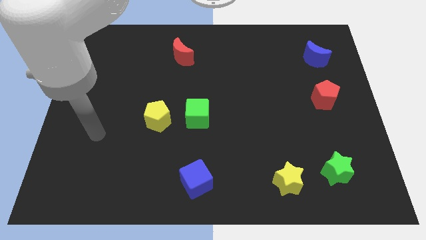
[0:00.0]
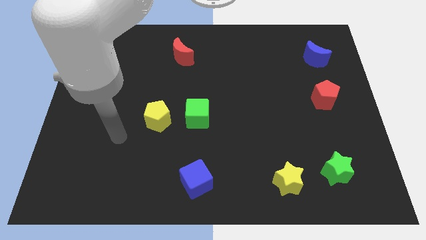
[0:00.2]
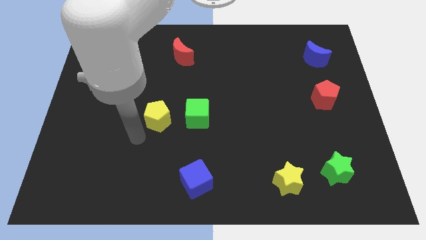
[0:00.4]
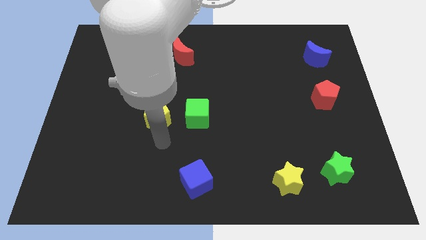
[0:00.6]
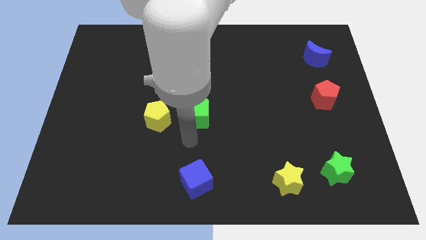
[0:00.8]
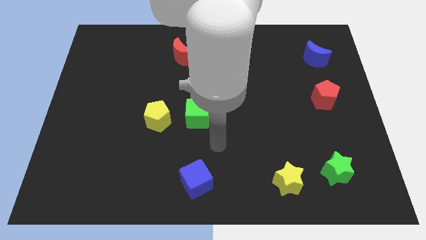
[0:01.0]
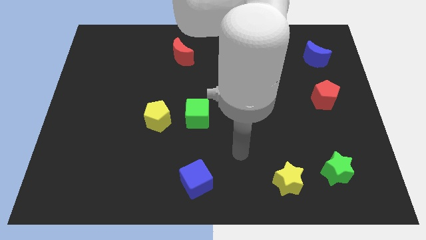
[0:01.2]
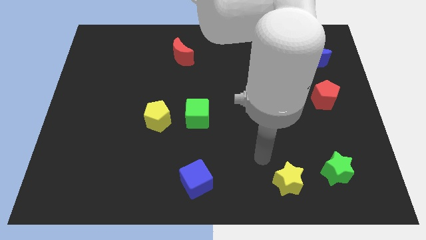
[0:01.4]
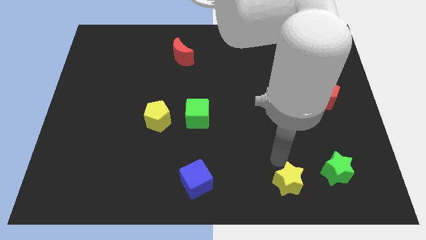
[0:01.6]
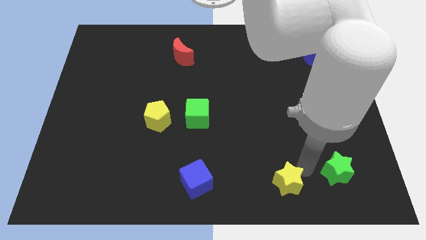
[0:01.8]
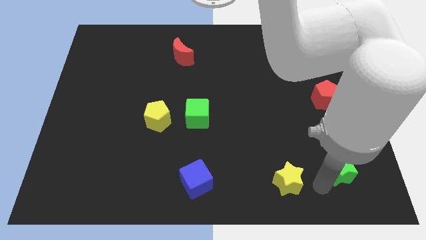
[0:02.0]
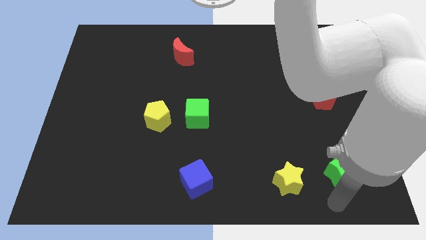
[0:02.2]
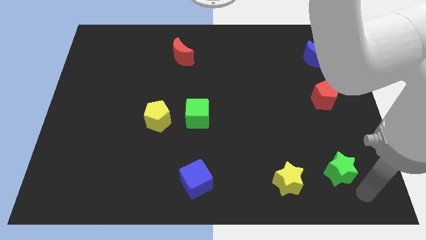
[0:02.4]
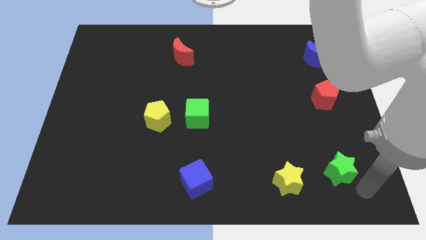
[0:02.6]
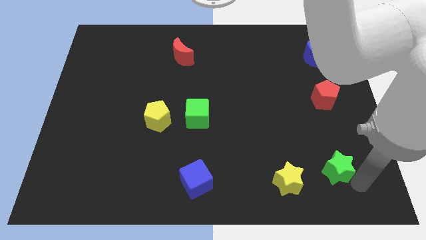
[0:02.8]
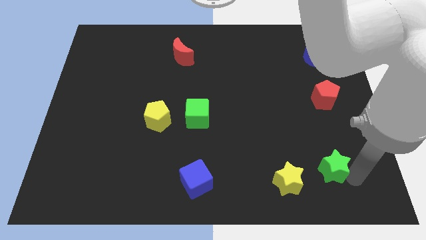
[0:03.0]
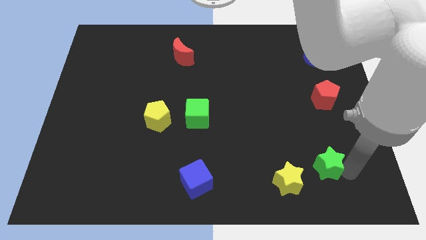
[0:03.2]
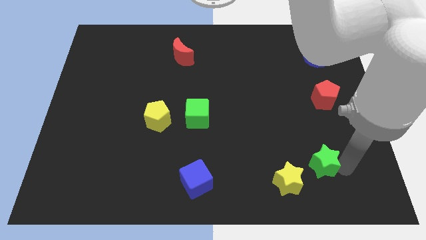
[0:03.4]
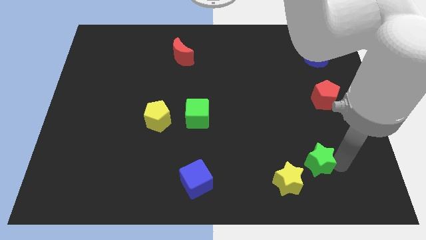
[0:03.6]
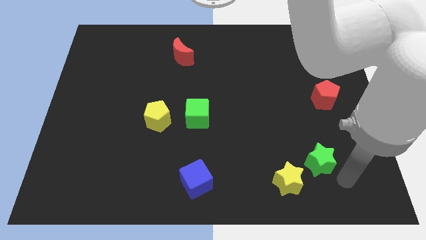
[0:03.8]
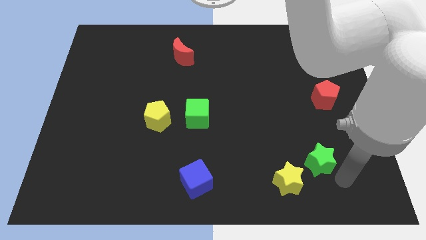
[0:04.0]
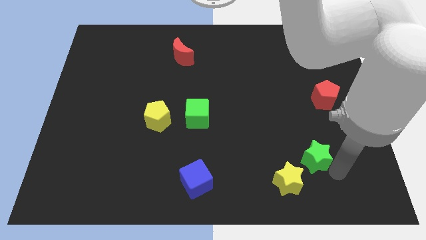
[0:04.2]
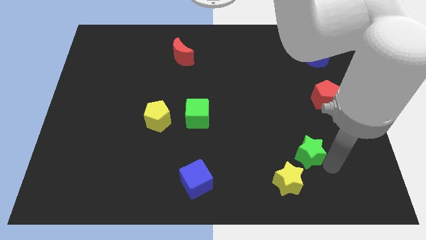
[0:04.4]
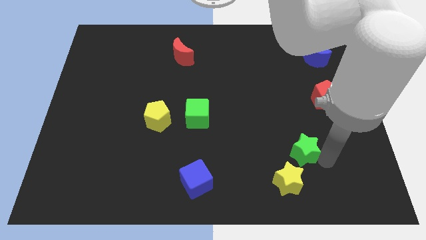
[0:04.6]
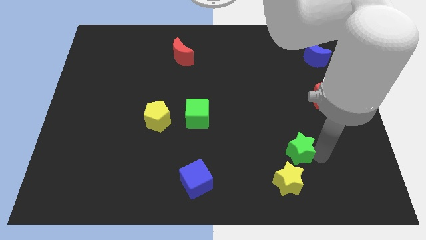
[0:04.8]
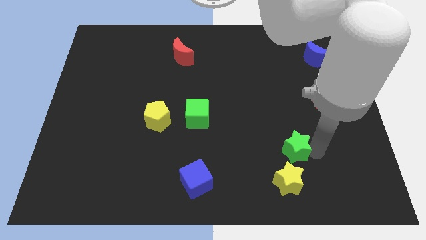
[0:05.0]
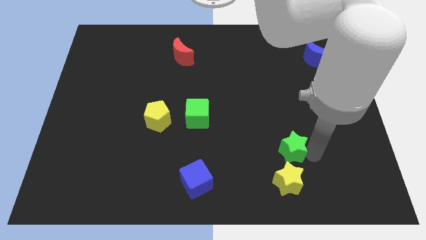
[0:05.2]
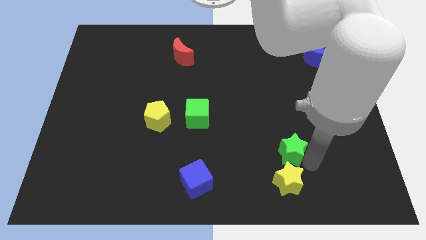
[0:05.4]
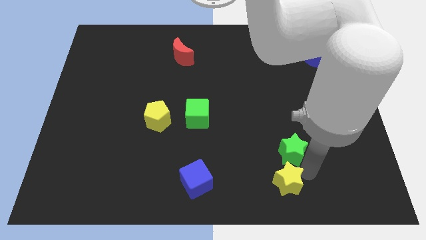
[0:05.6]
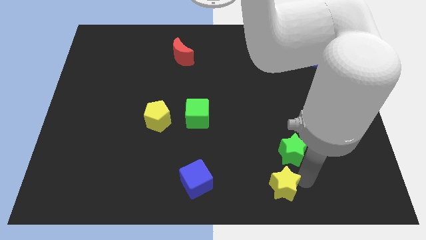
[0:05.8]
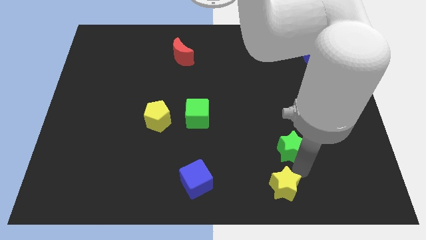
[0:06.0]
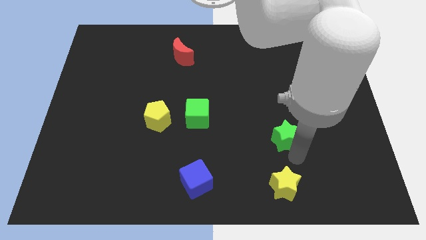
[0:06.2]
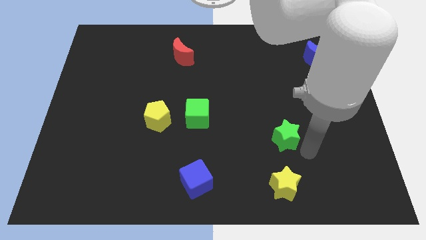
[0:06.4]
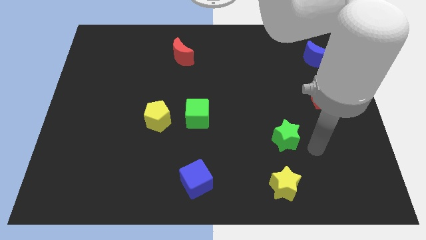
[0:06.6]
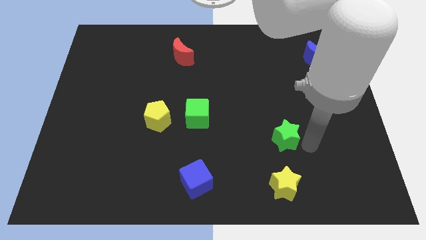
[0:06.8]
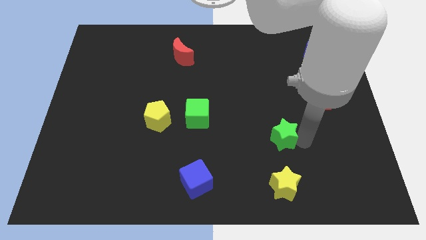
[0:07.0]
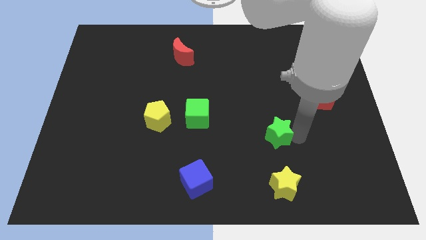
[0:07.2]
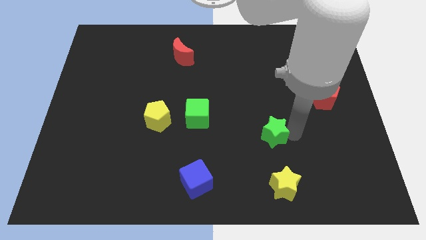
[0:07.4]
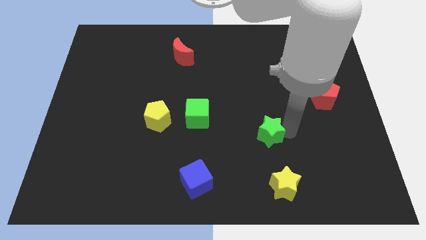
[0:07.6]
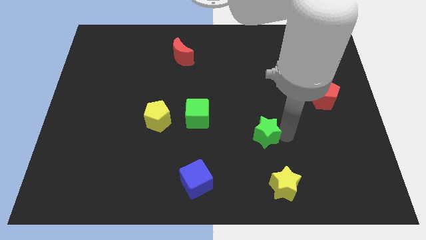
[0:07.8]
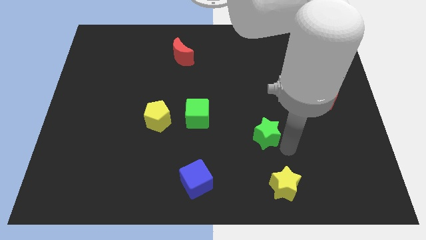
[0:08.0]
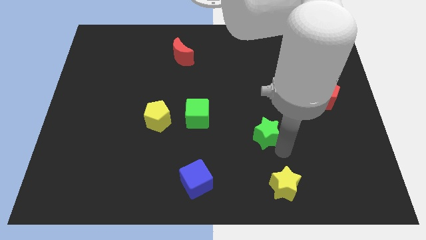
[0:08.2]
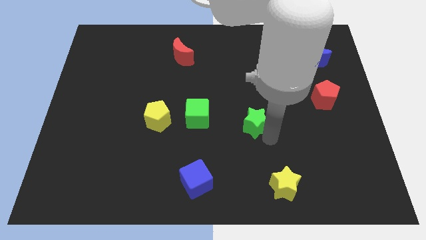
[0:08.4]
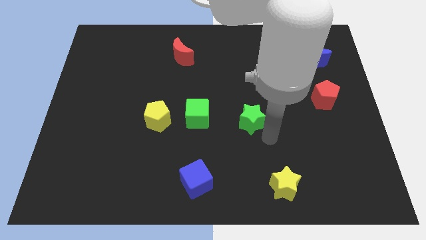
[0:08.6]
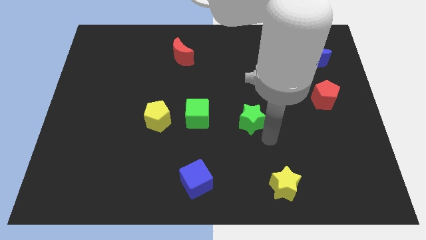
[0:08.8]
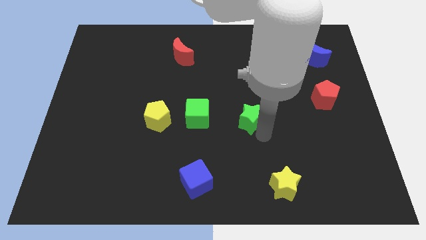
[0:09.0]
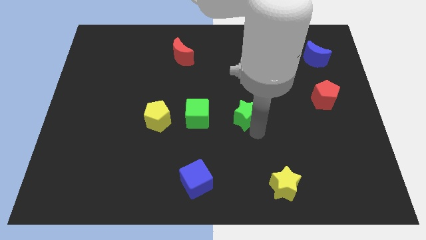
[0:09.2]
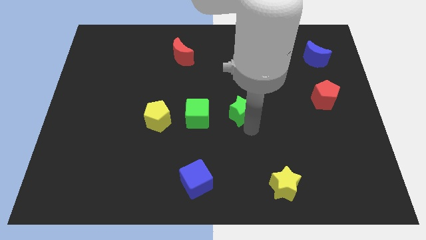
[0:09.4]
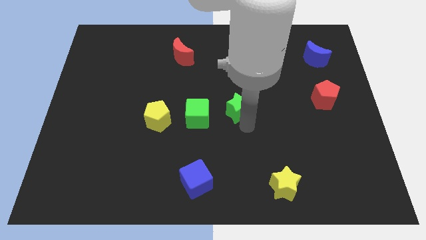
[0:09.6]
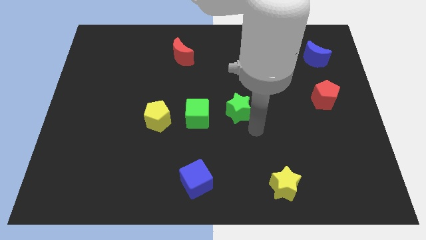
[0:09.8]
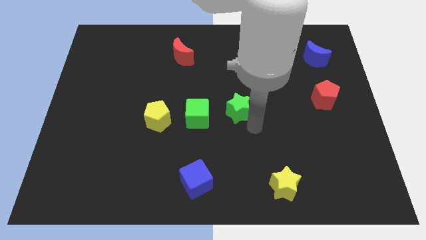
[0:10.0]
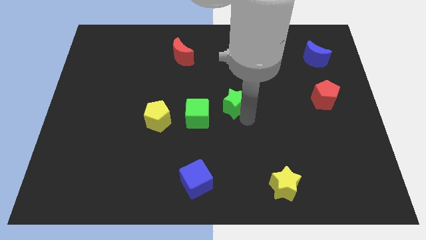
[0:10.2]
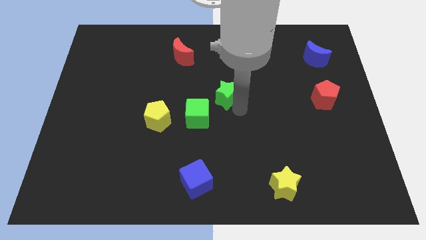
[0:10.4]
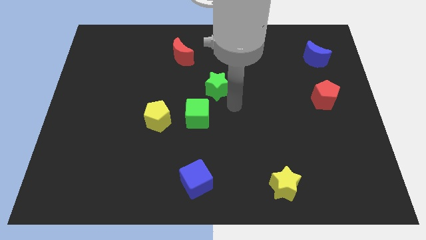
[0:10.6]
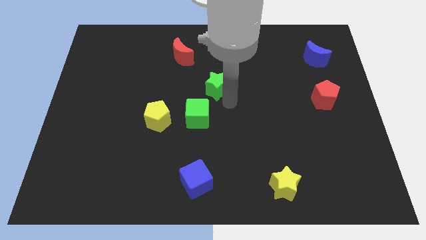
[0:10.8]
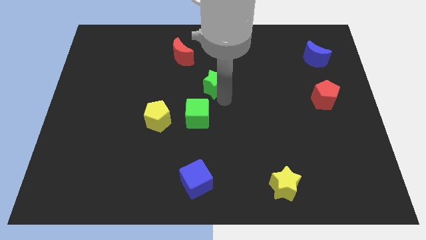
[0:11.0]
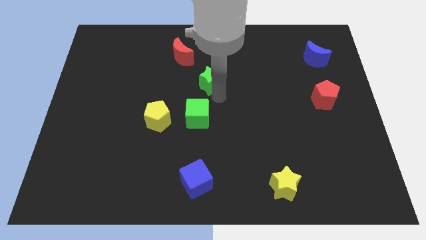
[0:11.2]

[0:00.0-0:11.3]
move the green star to the bottom right of the red moon
